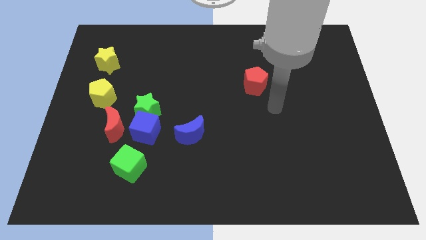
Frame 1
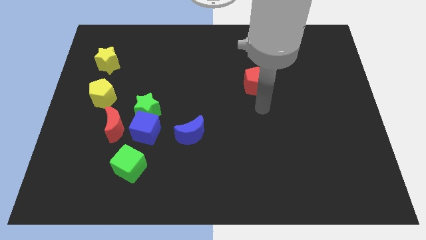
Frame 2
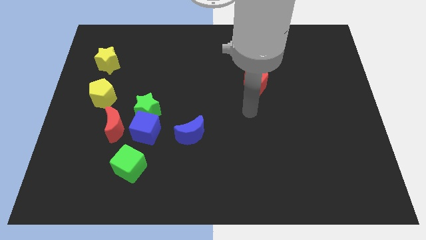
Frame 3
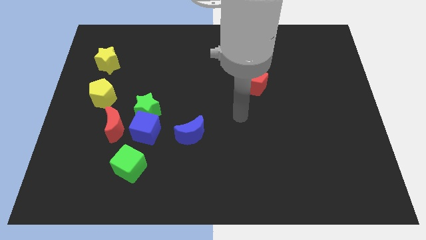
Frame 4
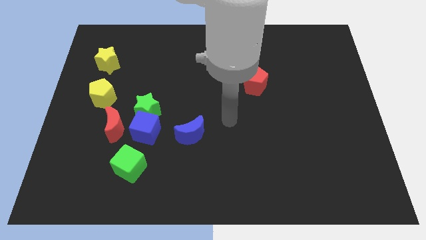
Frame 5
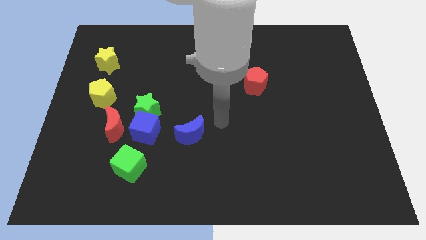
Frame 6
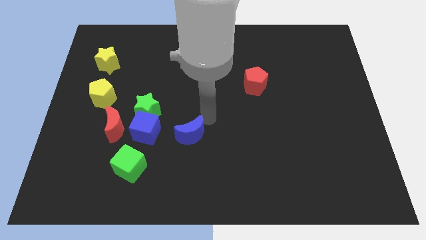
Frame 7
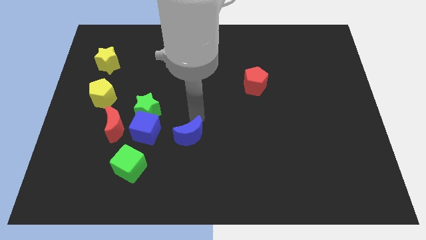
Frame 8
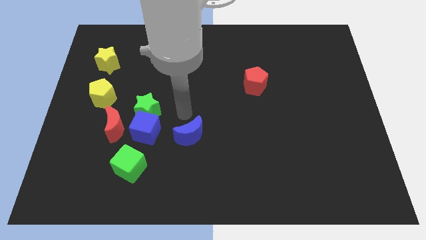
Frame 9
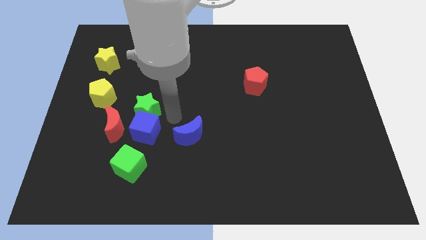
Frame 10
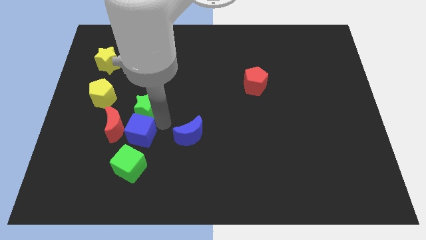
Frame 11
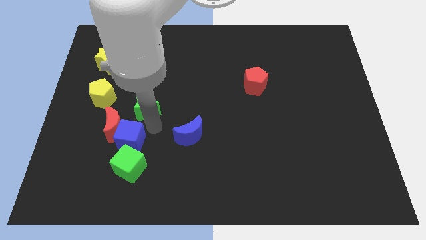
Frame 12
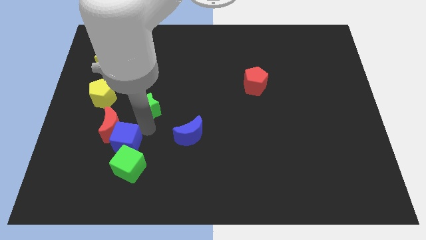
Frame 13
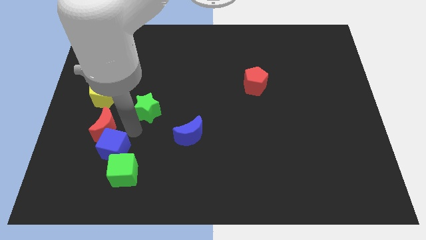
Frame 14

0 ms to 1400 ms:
move the green star away from the blue cube and red moon

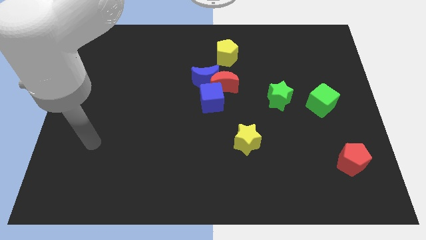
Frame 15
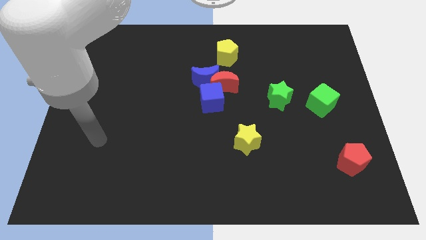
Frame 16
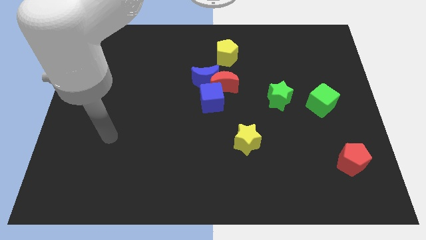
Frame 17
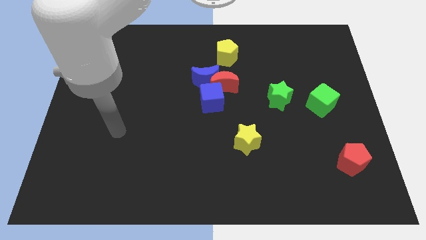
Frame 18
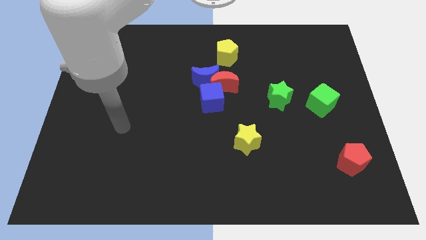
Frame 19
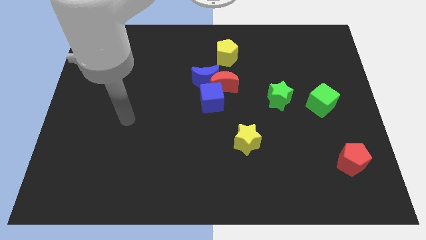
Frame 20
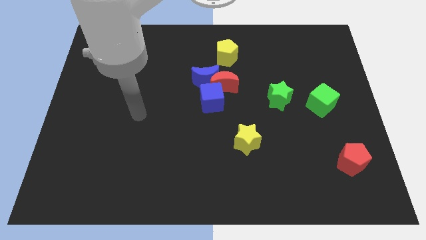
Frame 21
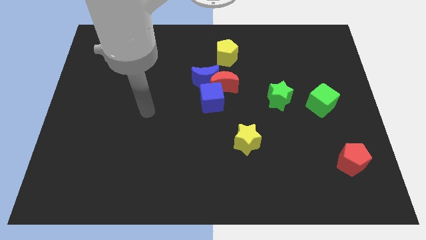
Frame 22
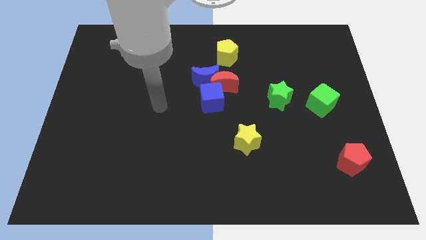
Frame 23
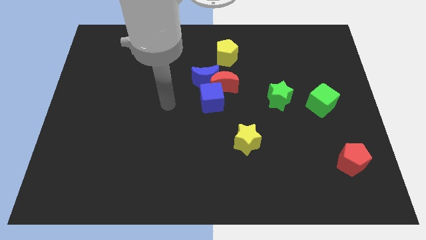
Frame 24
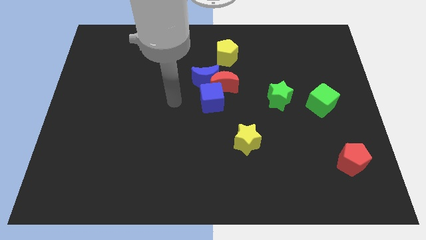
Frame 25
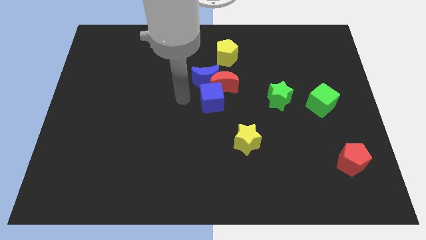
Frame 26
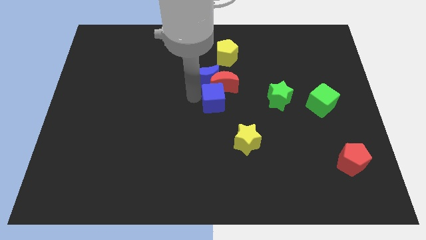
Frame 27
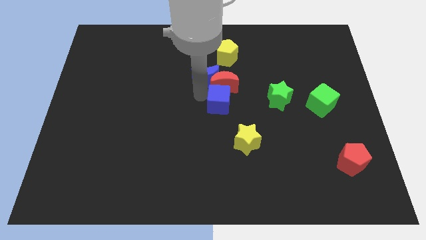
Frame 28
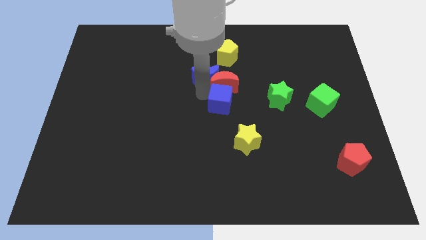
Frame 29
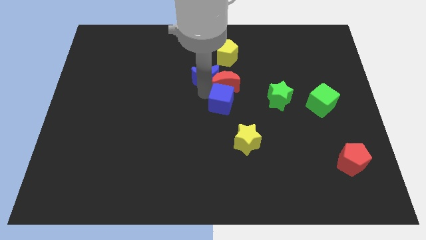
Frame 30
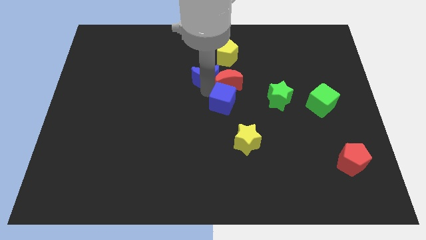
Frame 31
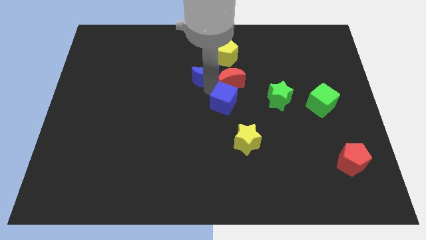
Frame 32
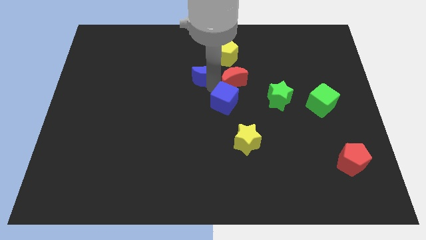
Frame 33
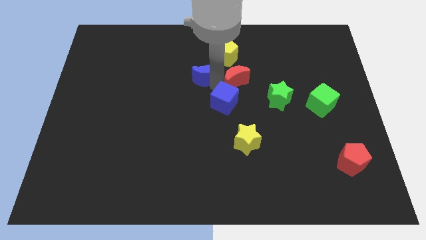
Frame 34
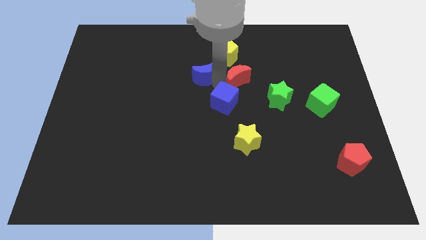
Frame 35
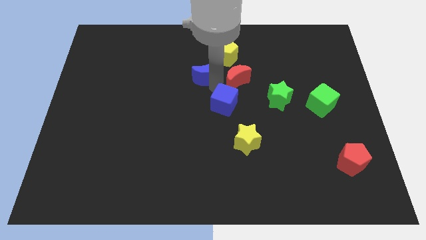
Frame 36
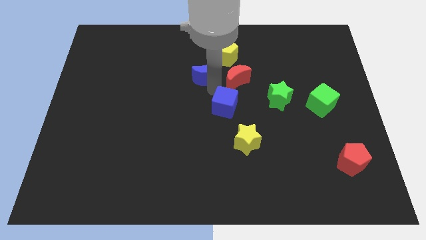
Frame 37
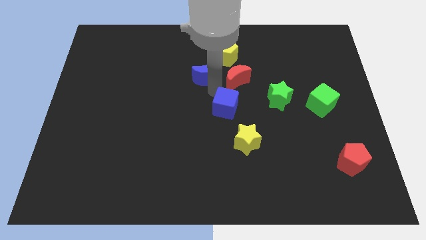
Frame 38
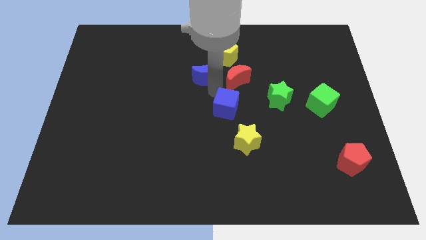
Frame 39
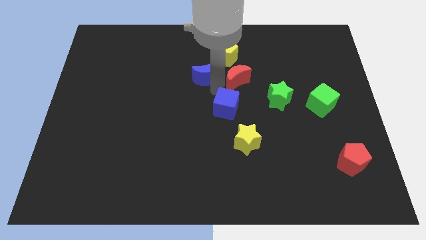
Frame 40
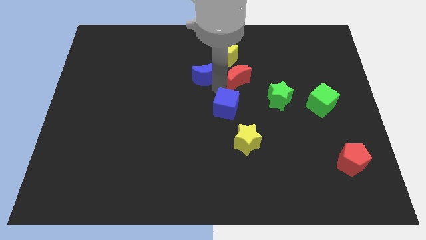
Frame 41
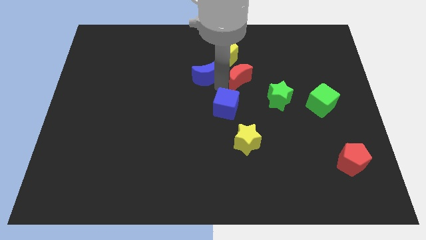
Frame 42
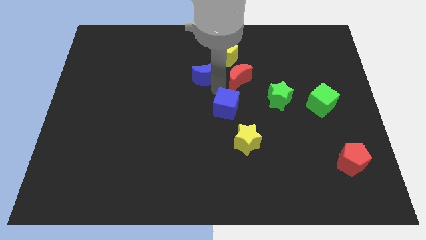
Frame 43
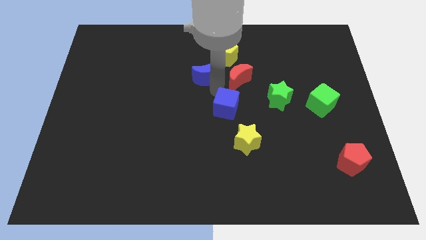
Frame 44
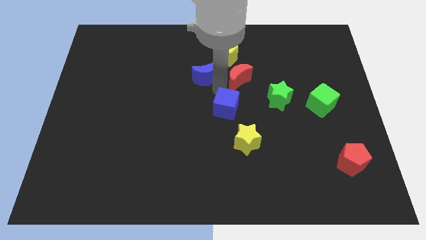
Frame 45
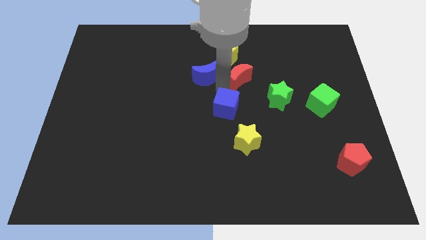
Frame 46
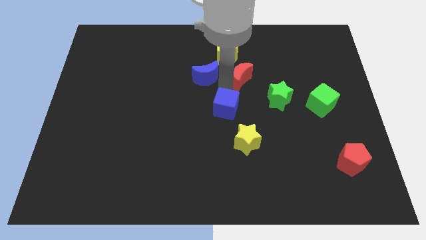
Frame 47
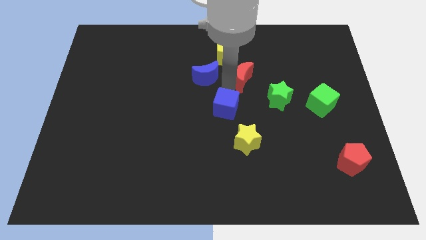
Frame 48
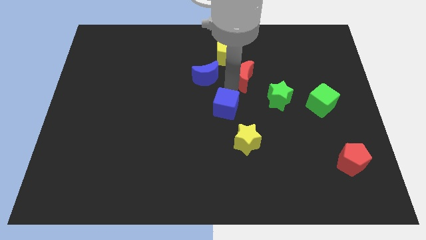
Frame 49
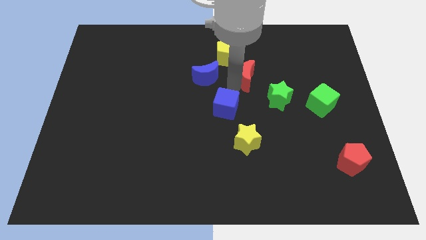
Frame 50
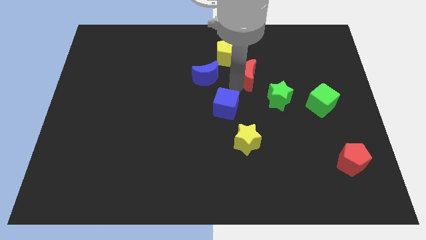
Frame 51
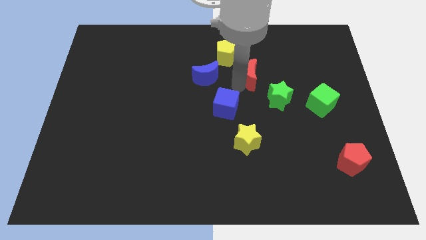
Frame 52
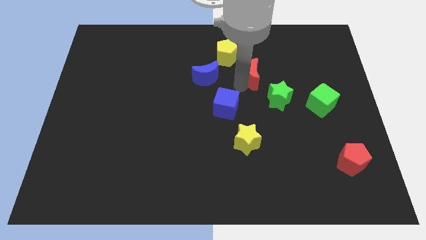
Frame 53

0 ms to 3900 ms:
separate the red moon from the blue moon and blue cube

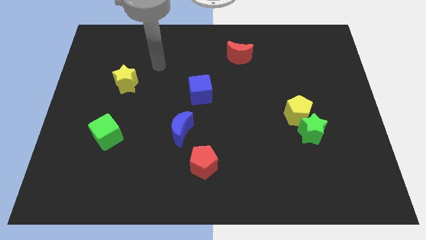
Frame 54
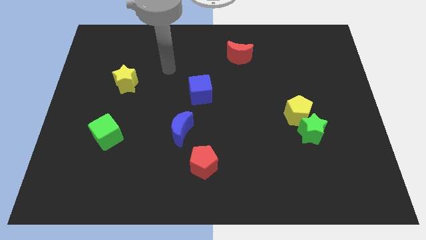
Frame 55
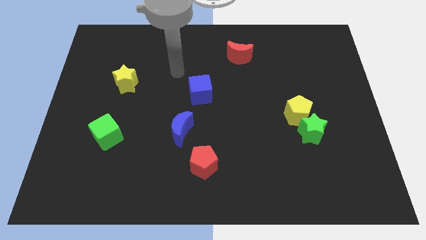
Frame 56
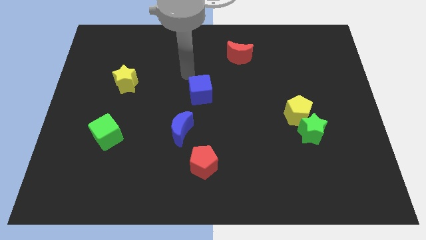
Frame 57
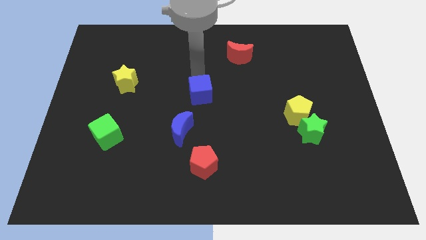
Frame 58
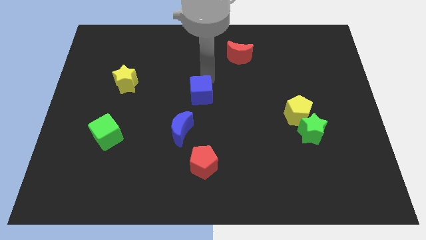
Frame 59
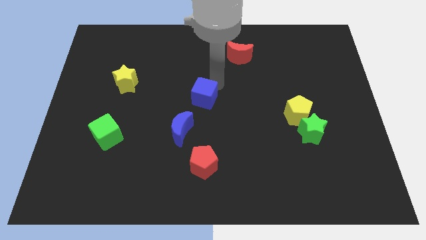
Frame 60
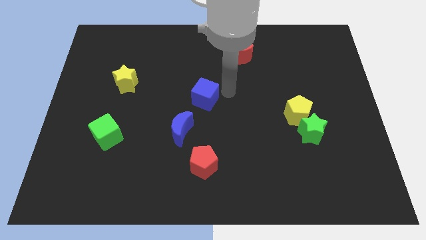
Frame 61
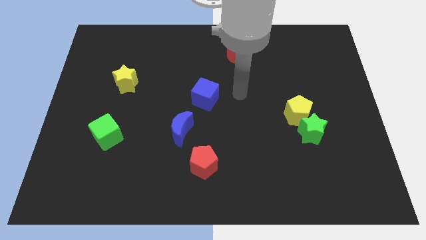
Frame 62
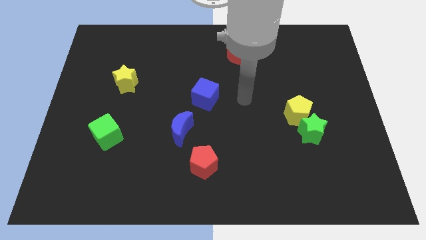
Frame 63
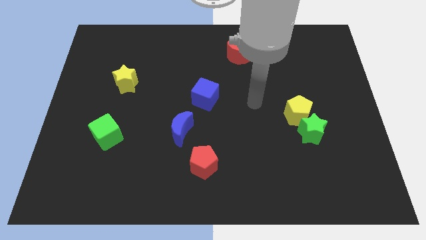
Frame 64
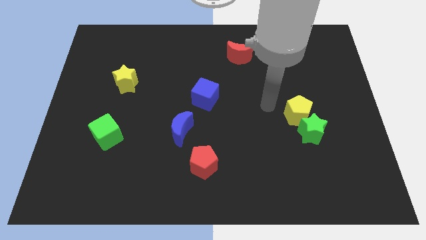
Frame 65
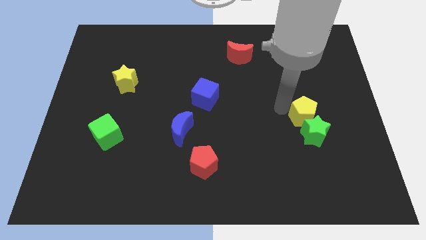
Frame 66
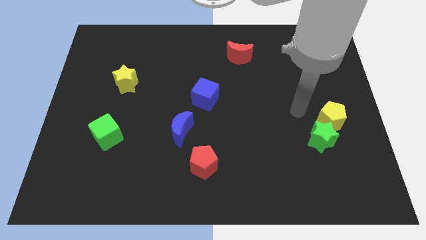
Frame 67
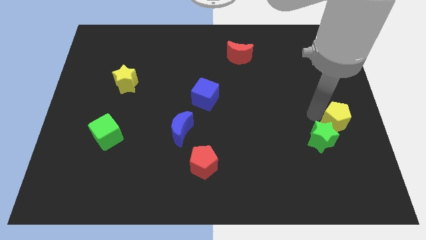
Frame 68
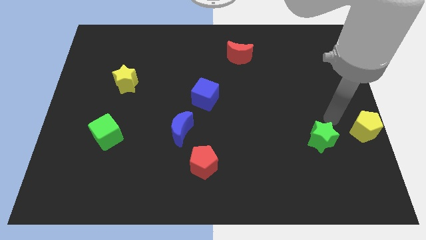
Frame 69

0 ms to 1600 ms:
separate the green star from the yellow pentagon

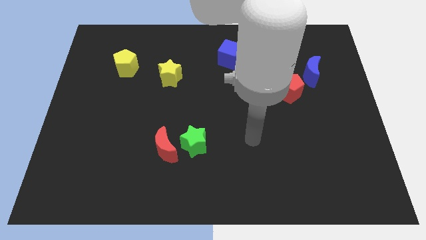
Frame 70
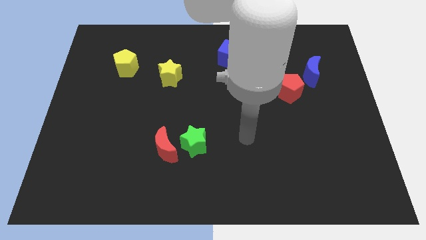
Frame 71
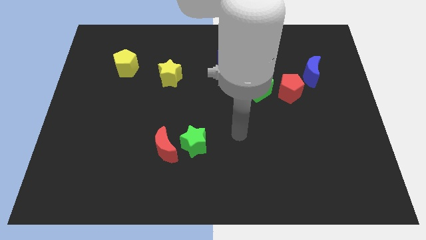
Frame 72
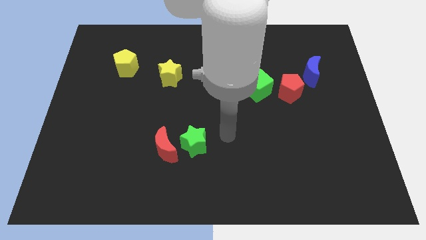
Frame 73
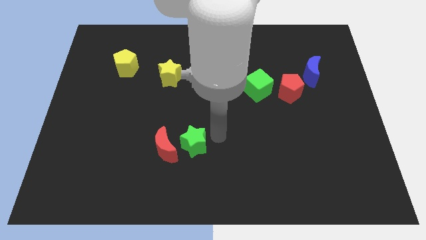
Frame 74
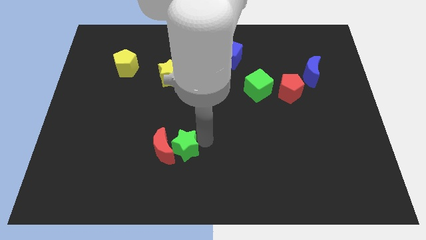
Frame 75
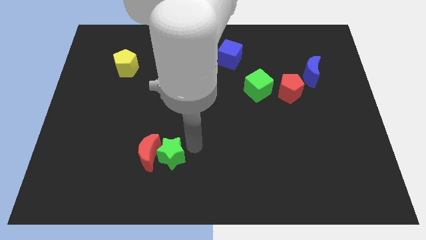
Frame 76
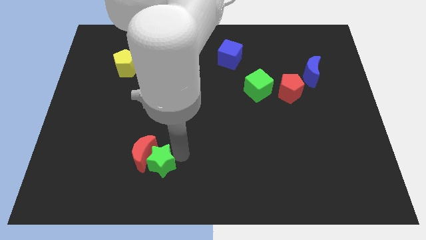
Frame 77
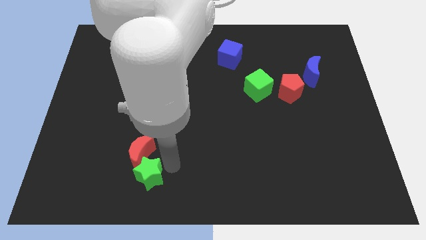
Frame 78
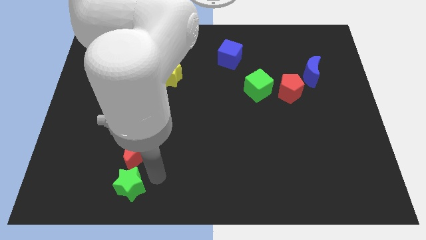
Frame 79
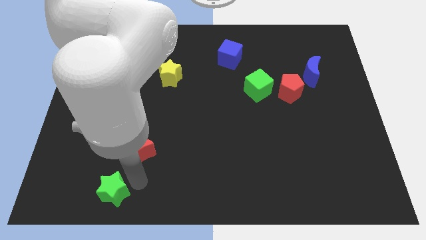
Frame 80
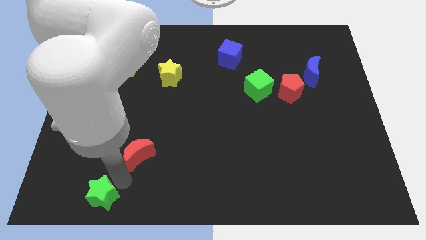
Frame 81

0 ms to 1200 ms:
pull the red moon apart from the green star

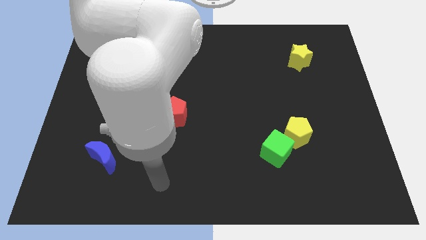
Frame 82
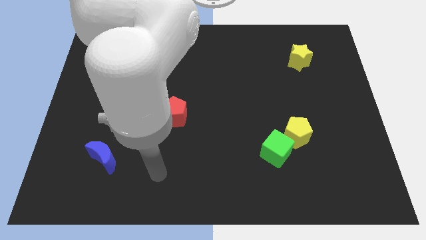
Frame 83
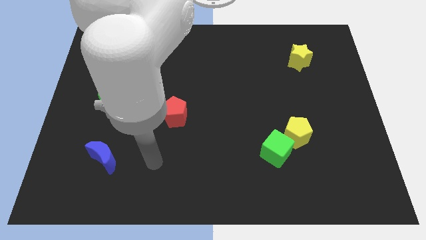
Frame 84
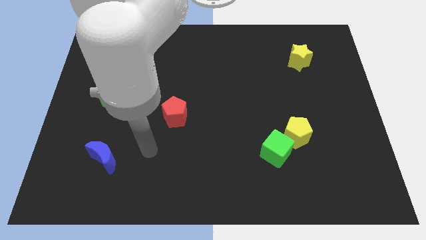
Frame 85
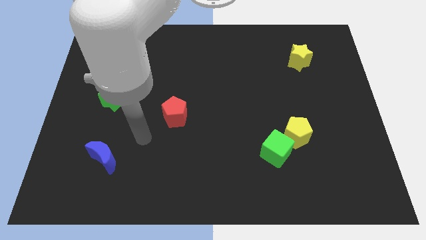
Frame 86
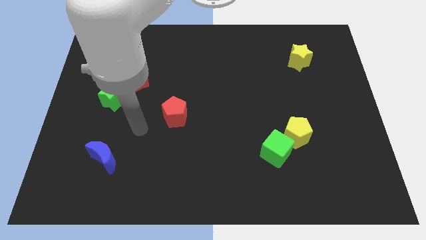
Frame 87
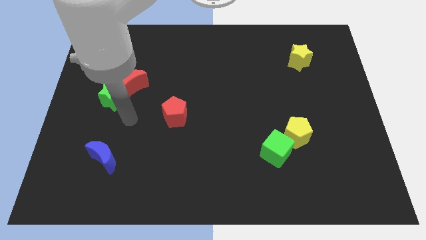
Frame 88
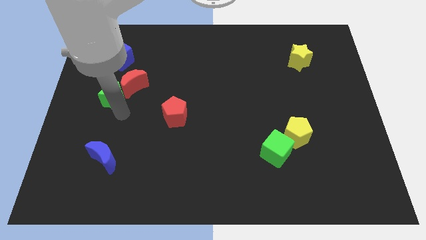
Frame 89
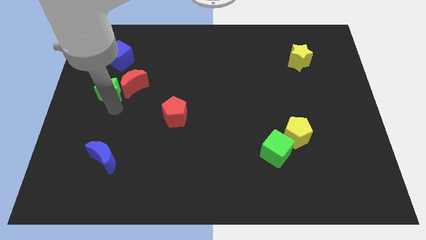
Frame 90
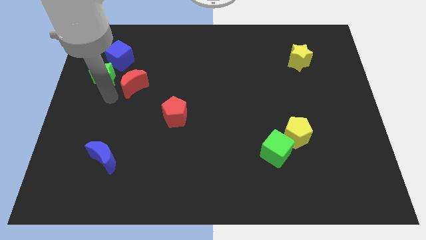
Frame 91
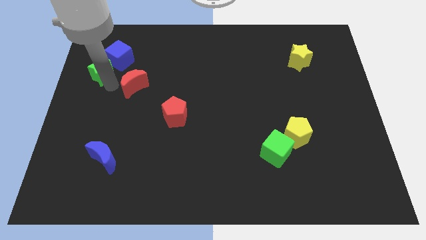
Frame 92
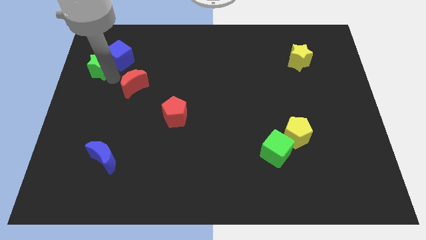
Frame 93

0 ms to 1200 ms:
separate the red moon from the green star
